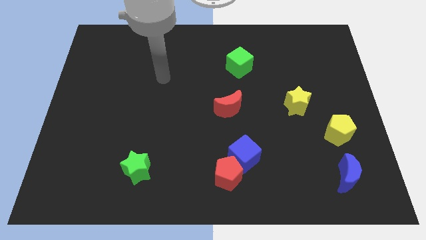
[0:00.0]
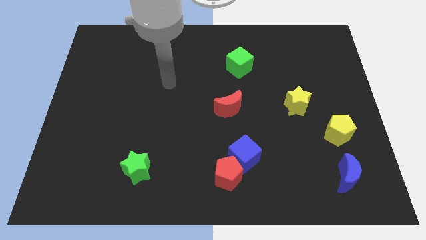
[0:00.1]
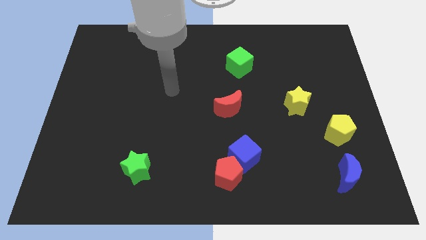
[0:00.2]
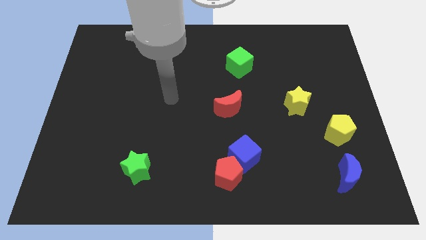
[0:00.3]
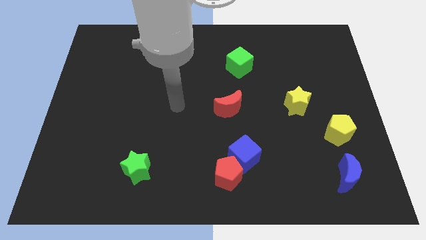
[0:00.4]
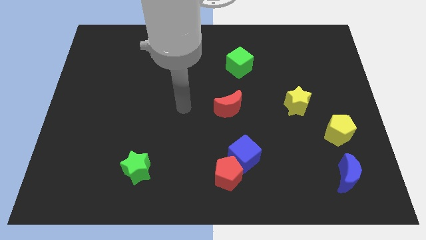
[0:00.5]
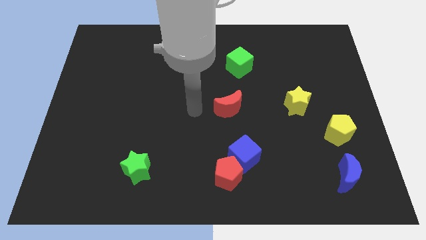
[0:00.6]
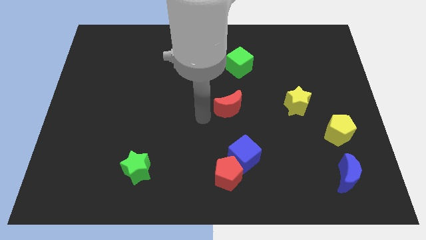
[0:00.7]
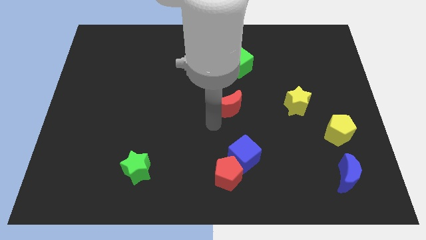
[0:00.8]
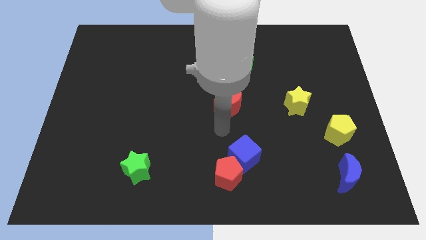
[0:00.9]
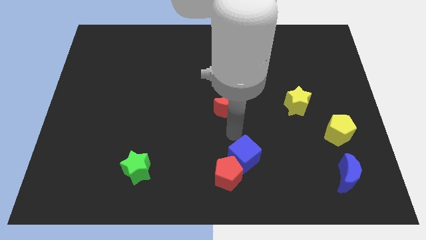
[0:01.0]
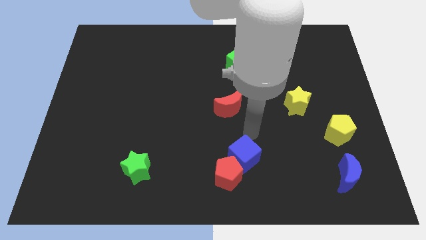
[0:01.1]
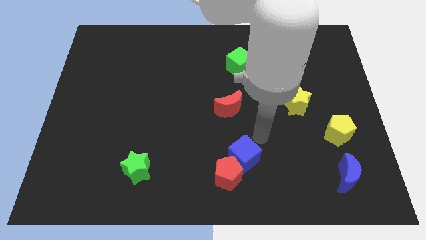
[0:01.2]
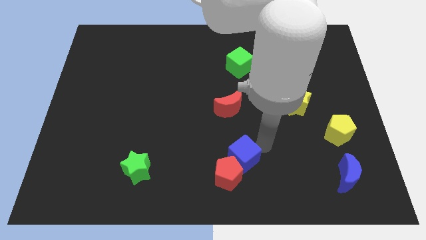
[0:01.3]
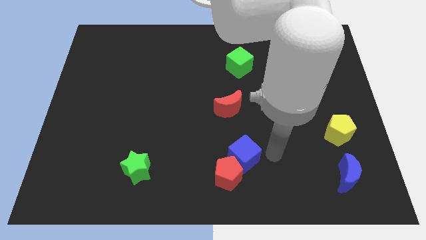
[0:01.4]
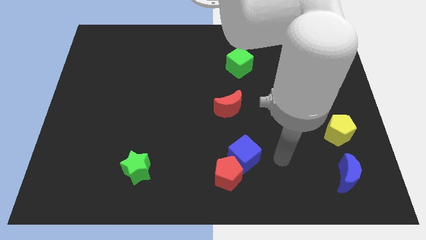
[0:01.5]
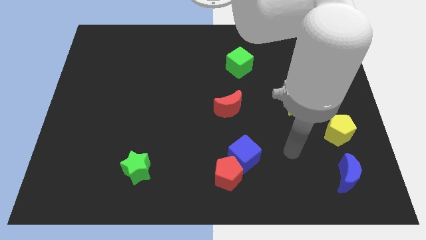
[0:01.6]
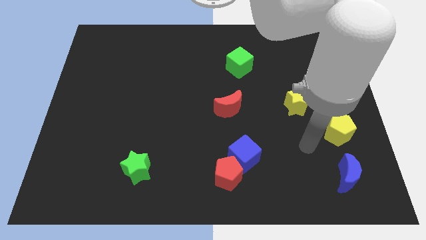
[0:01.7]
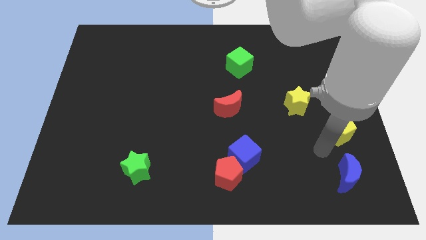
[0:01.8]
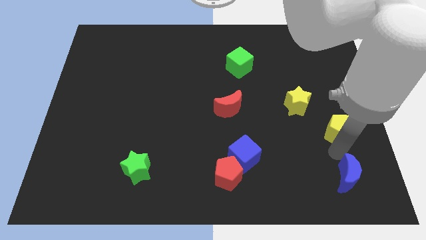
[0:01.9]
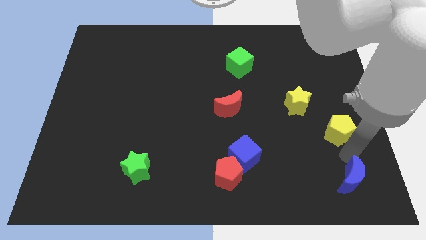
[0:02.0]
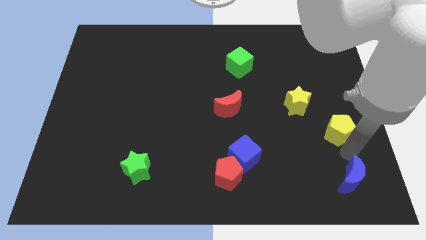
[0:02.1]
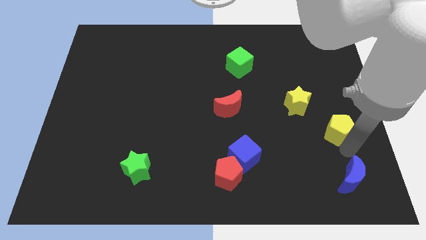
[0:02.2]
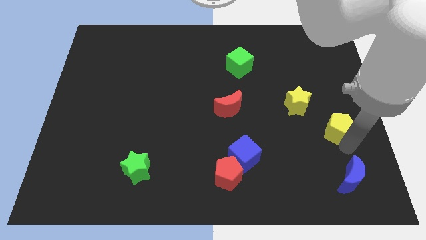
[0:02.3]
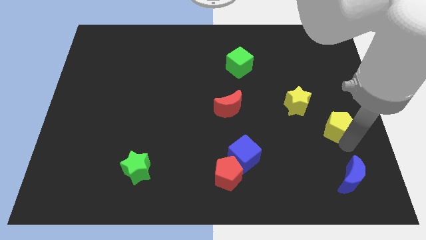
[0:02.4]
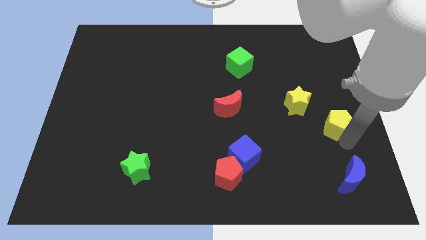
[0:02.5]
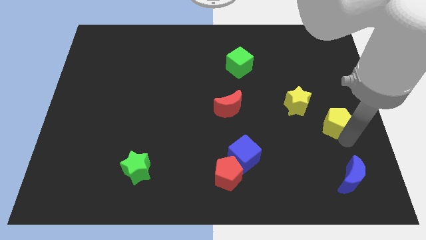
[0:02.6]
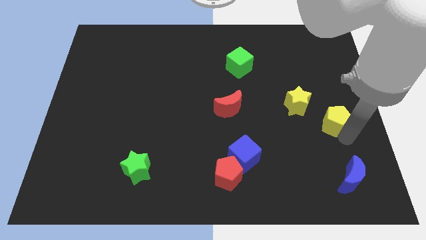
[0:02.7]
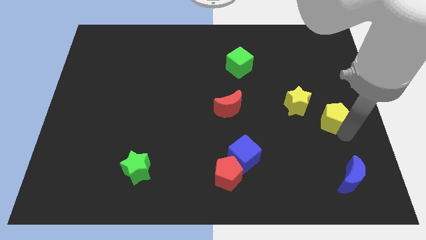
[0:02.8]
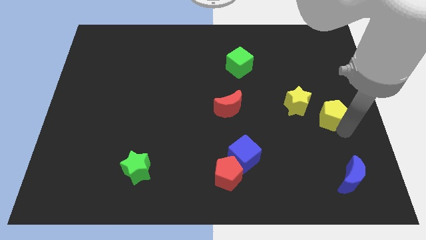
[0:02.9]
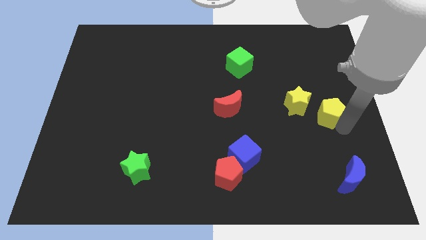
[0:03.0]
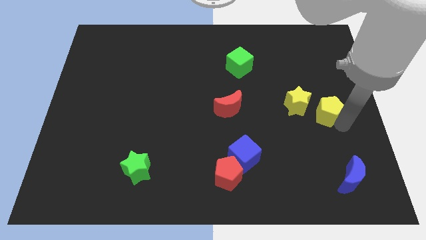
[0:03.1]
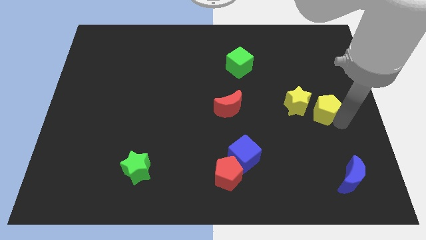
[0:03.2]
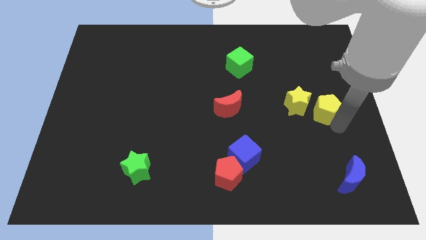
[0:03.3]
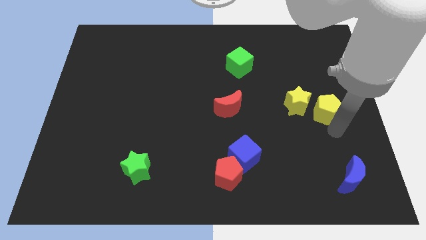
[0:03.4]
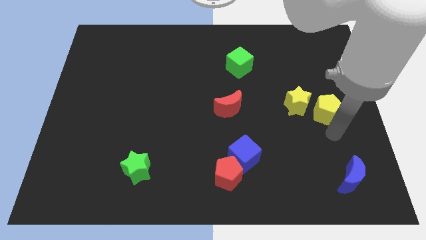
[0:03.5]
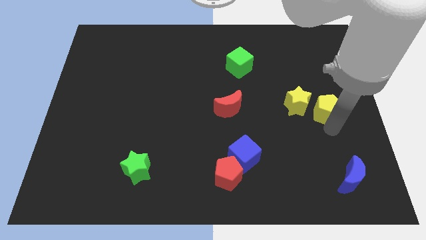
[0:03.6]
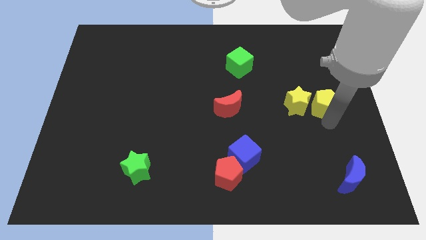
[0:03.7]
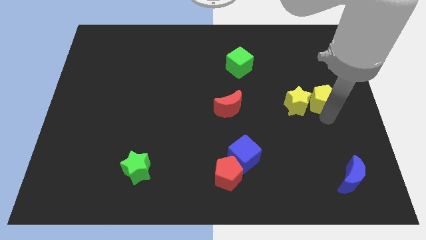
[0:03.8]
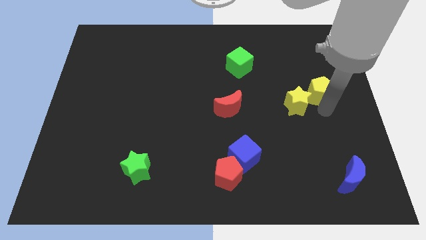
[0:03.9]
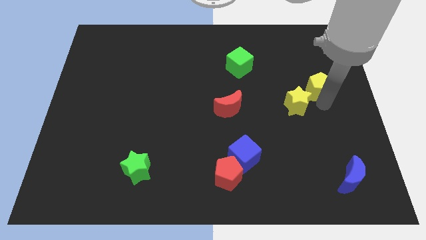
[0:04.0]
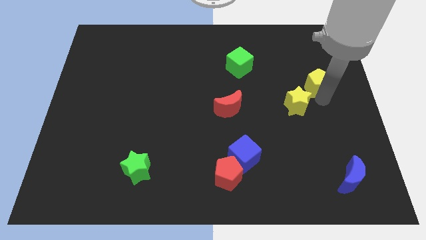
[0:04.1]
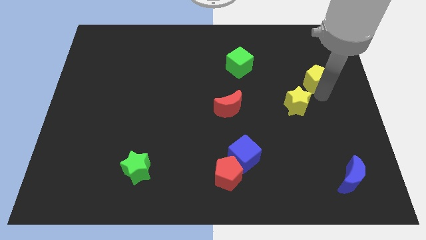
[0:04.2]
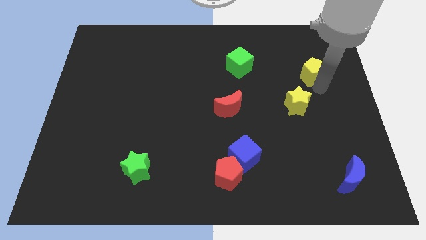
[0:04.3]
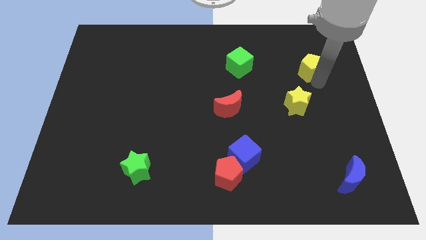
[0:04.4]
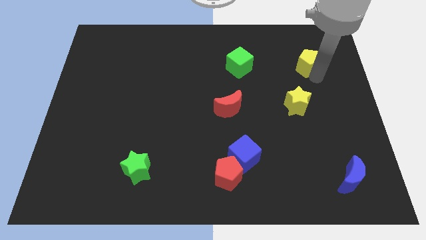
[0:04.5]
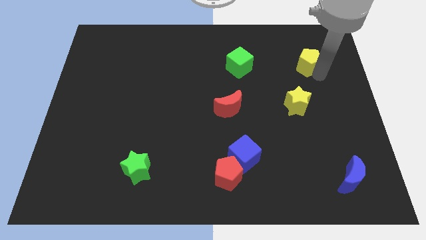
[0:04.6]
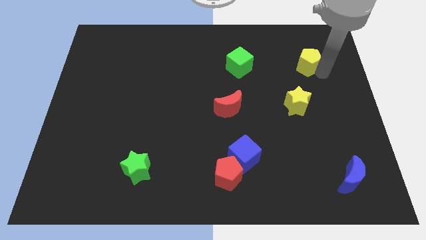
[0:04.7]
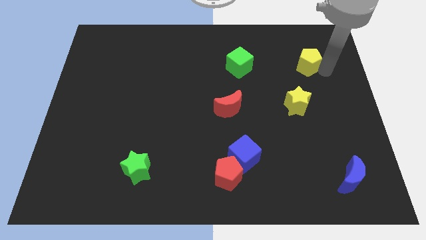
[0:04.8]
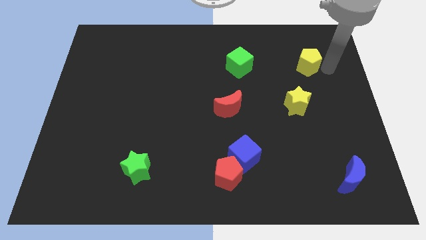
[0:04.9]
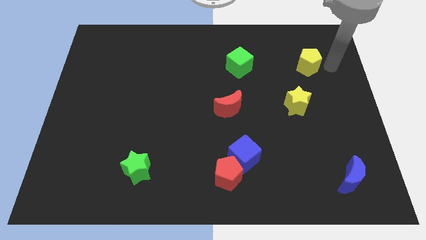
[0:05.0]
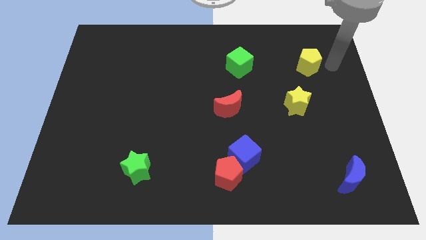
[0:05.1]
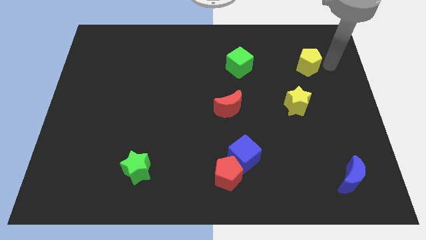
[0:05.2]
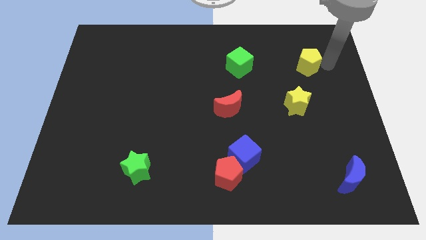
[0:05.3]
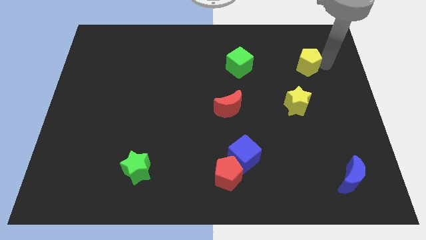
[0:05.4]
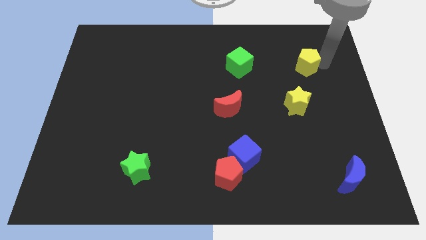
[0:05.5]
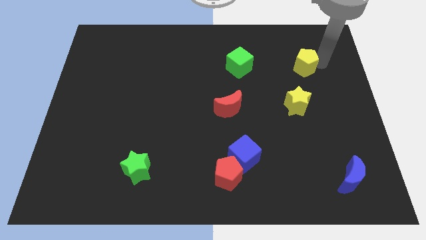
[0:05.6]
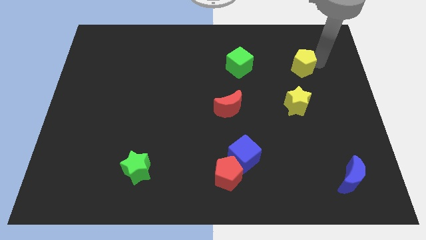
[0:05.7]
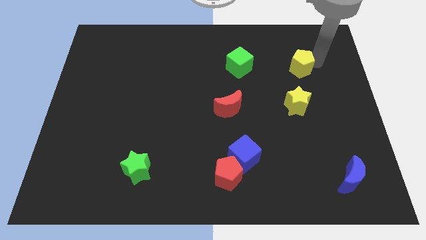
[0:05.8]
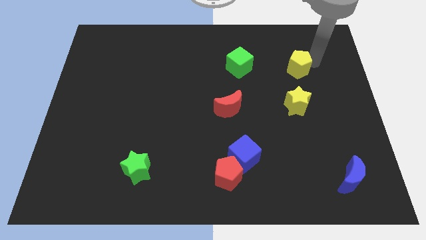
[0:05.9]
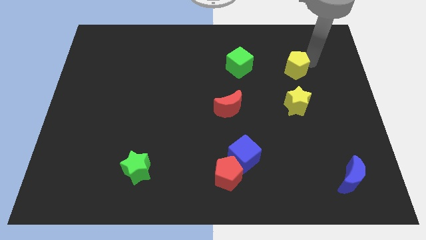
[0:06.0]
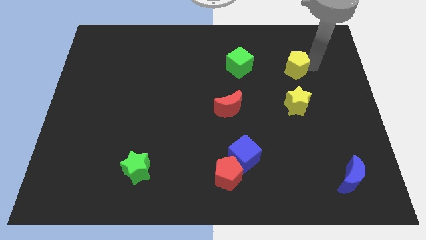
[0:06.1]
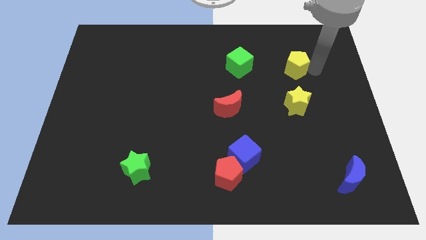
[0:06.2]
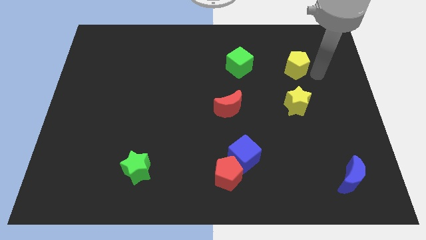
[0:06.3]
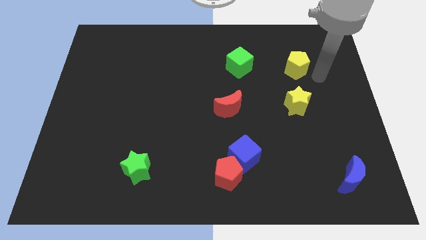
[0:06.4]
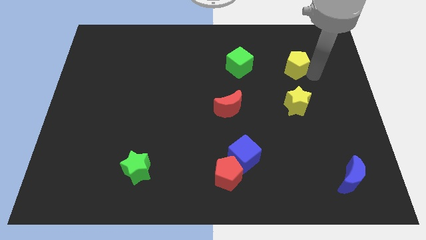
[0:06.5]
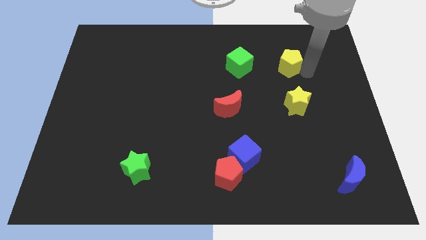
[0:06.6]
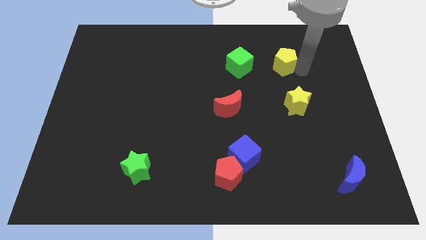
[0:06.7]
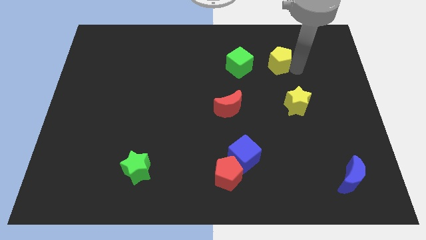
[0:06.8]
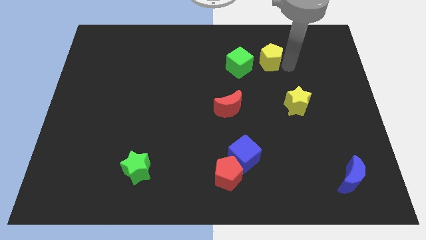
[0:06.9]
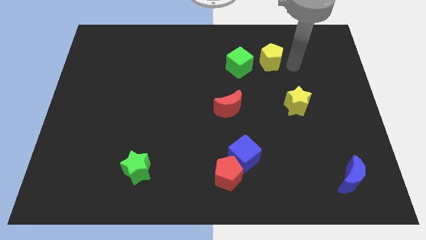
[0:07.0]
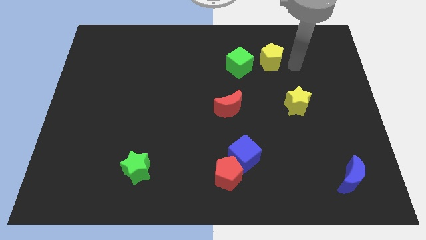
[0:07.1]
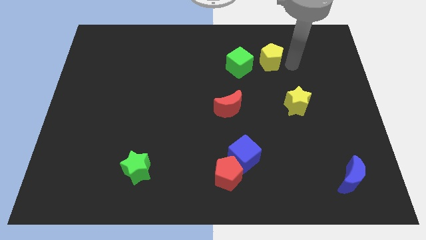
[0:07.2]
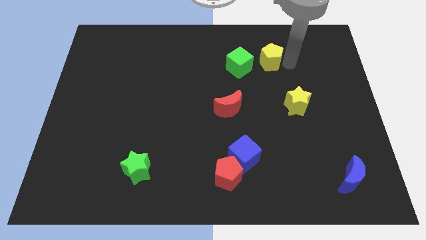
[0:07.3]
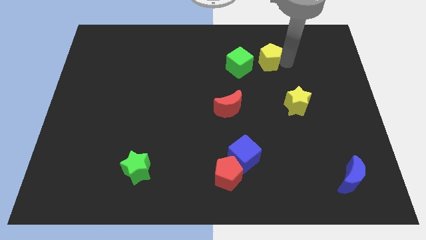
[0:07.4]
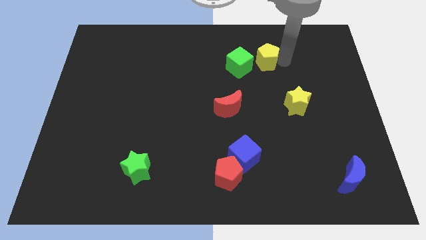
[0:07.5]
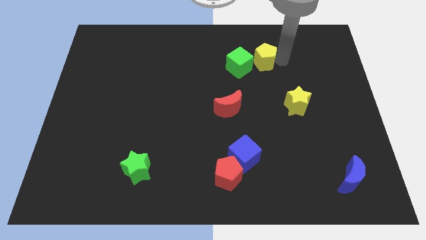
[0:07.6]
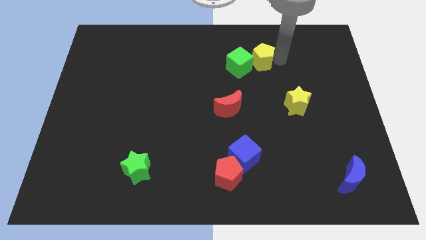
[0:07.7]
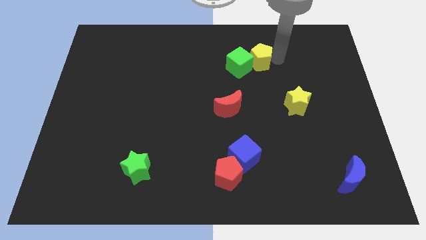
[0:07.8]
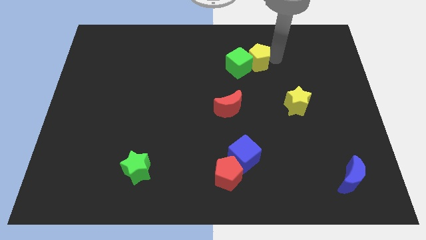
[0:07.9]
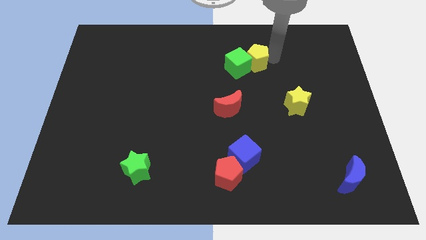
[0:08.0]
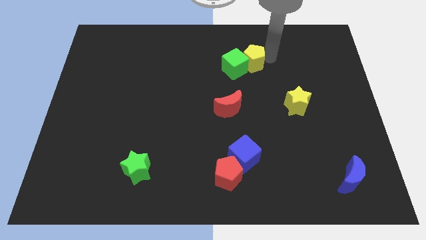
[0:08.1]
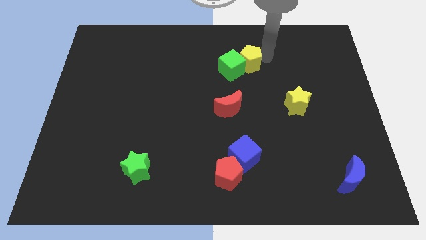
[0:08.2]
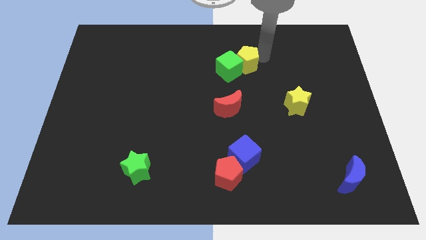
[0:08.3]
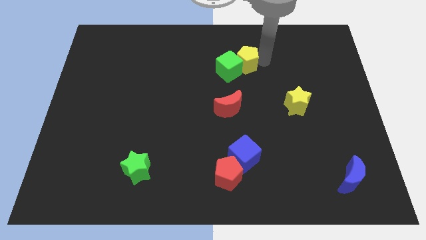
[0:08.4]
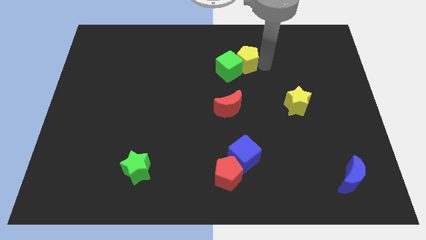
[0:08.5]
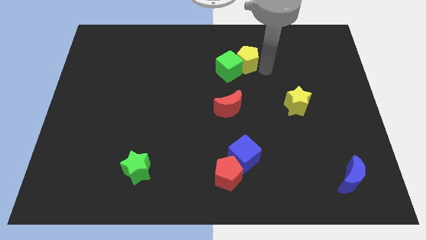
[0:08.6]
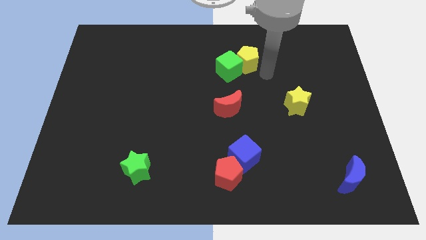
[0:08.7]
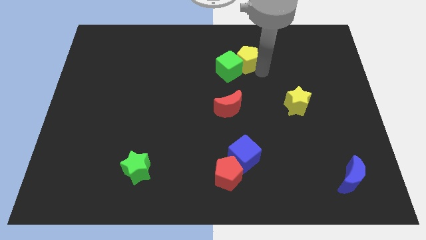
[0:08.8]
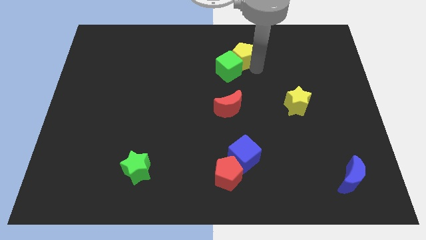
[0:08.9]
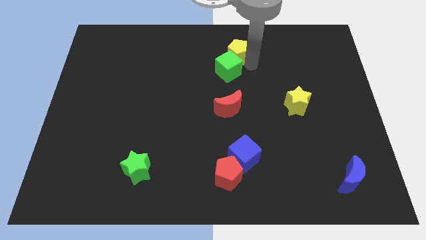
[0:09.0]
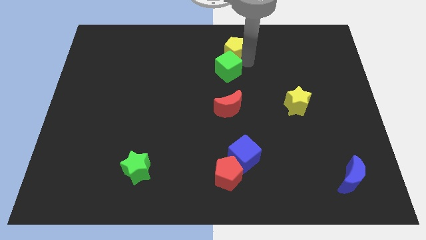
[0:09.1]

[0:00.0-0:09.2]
push the yellow pentagon to the top
